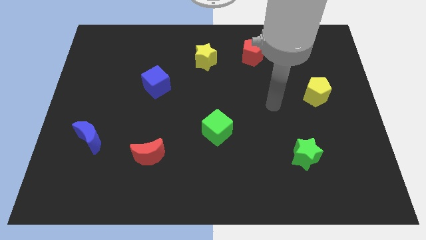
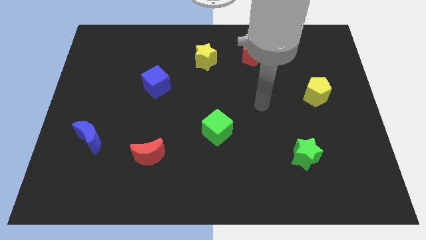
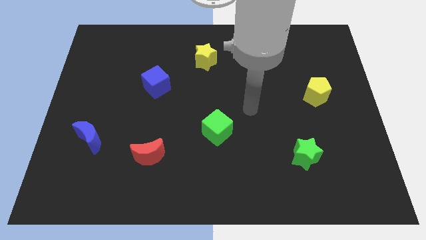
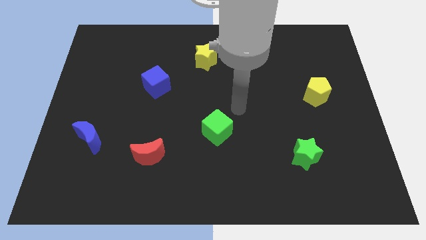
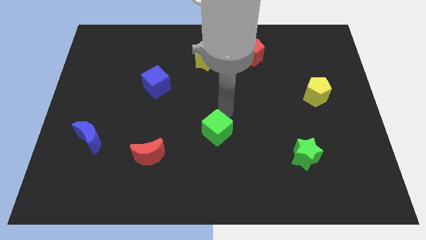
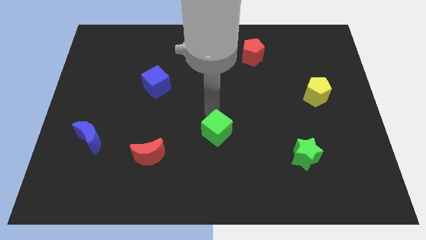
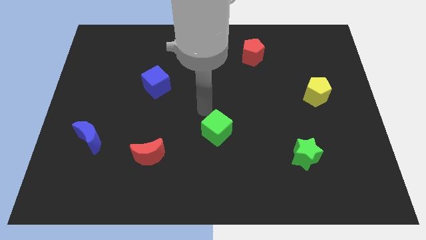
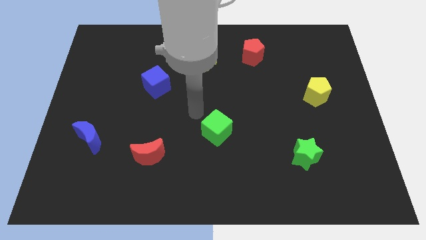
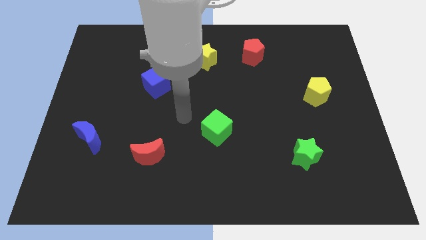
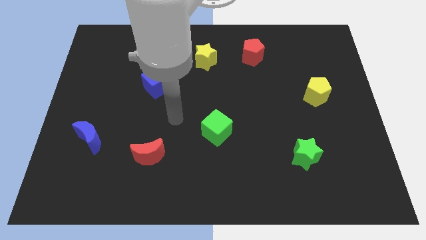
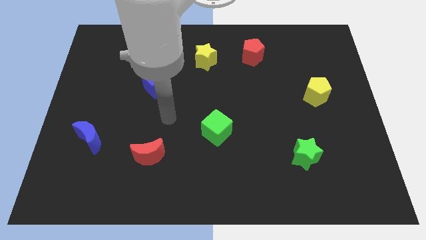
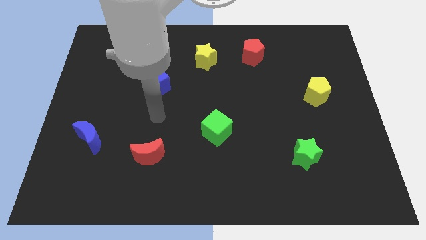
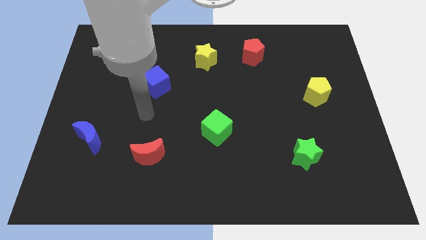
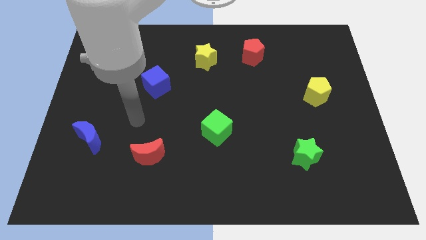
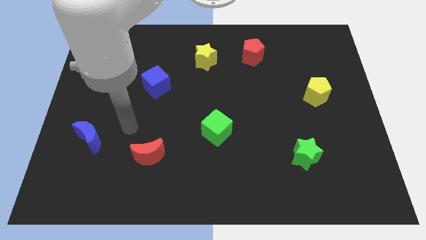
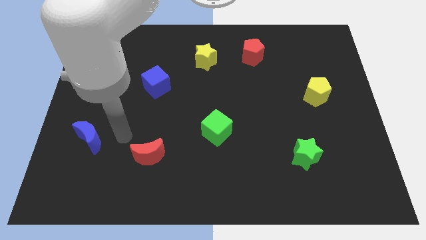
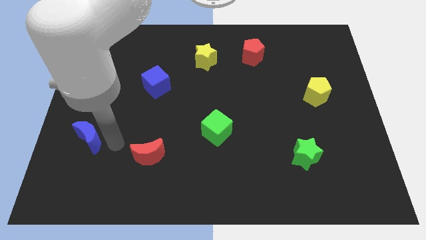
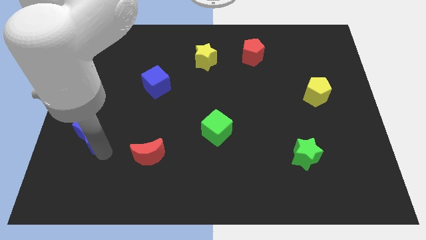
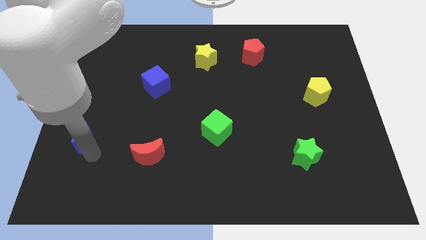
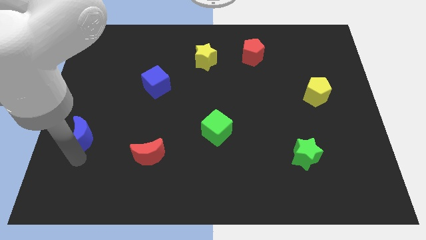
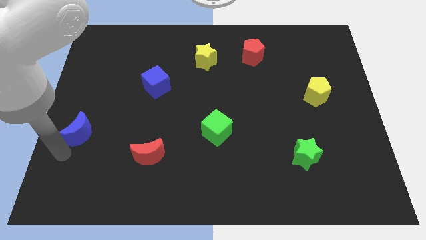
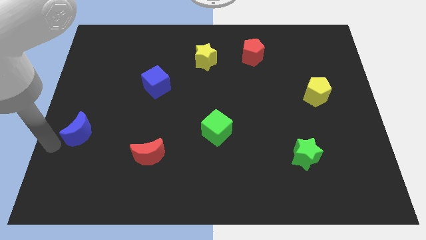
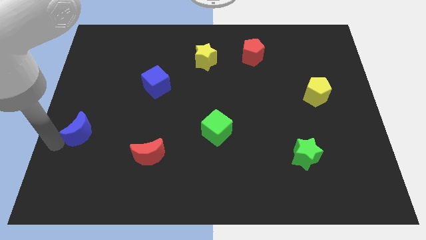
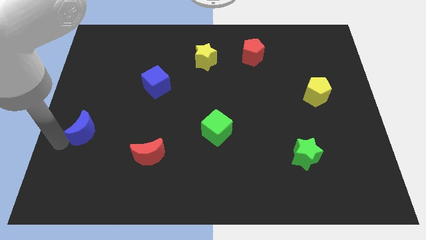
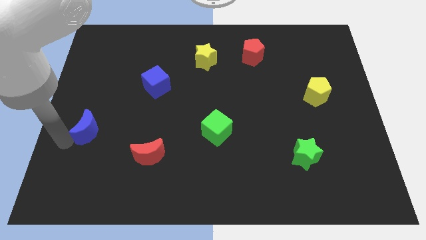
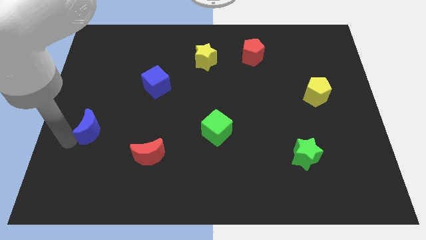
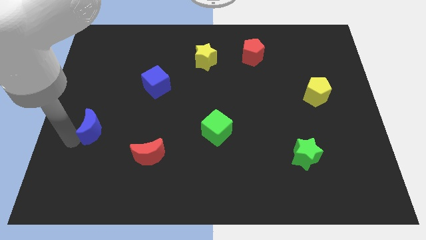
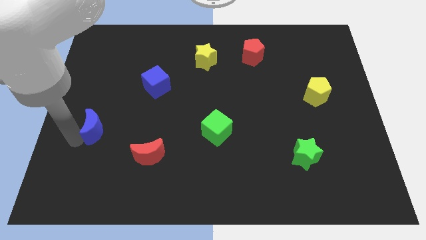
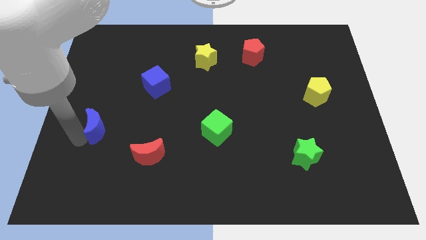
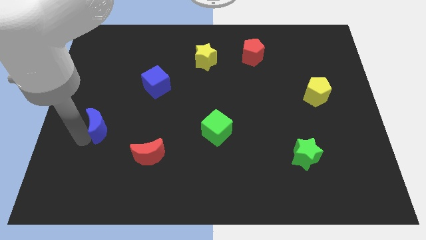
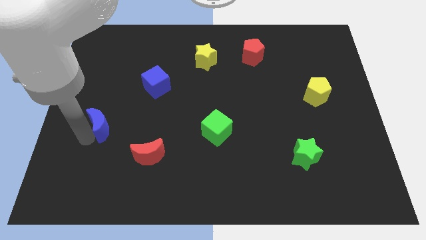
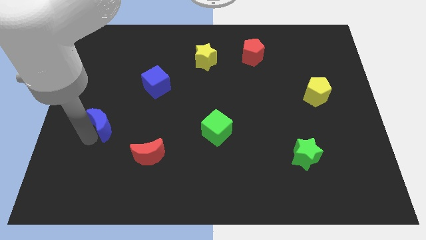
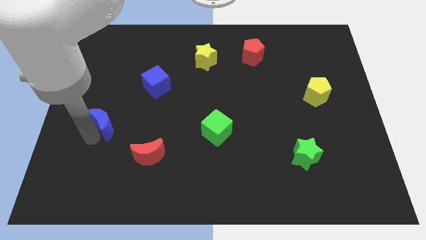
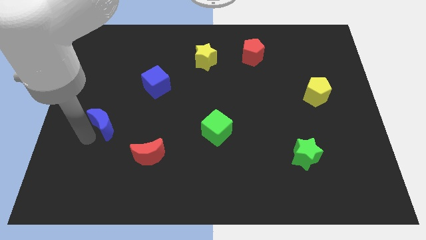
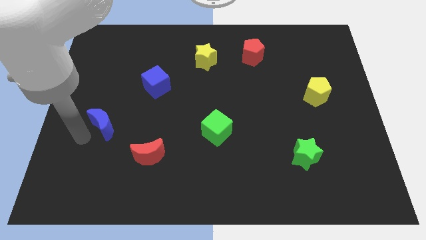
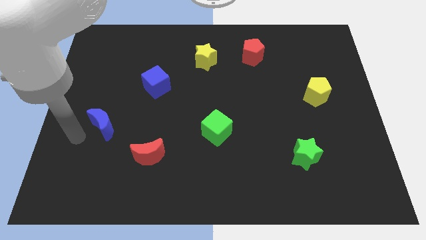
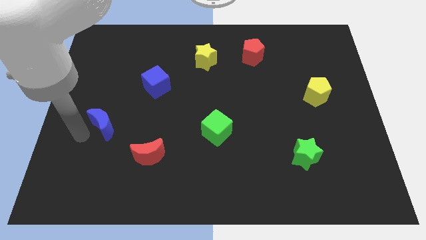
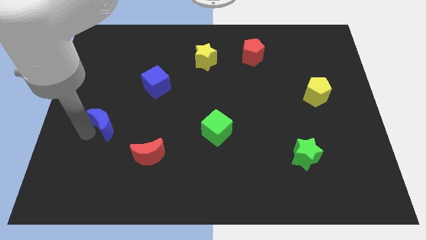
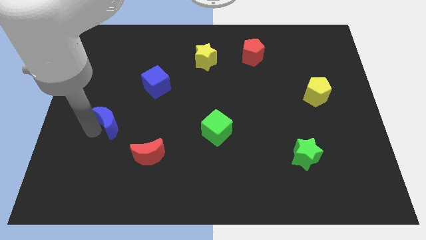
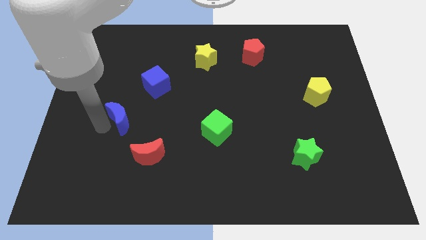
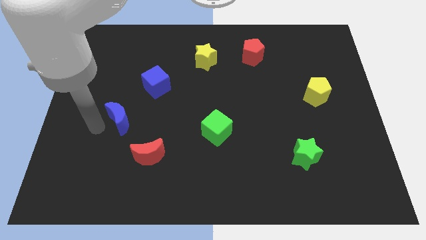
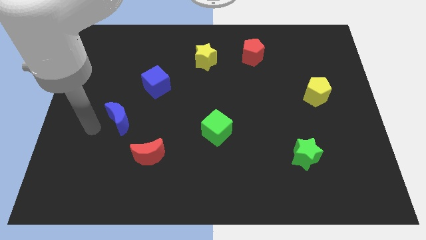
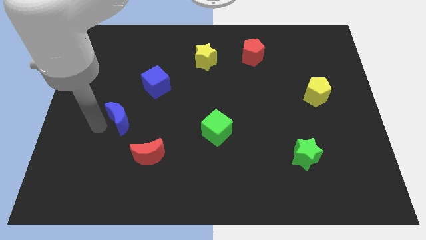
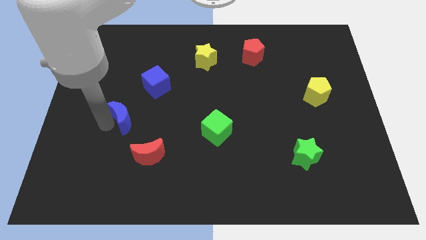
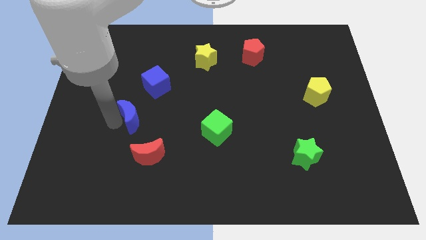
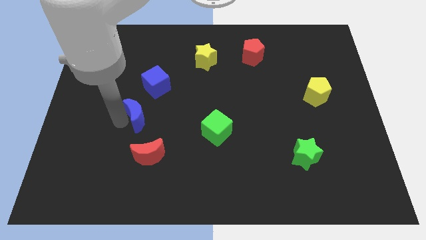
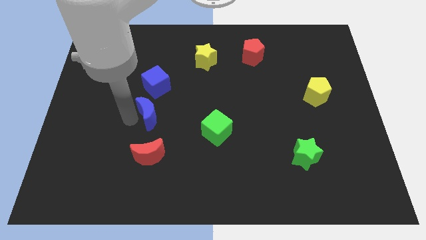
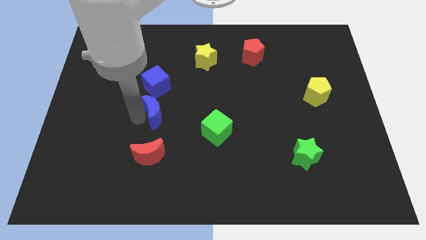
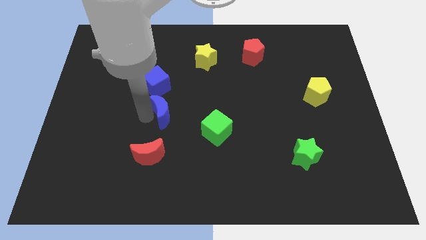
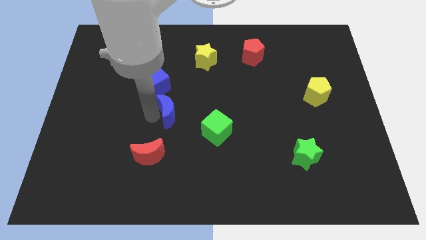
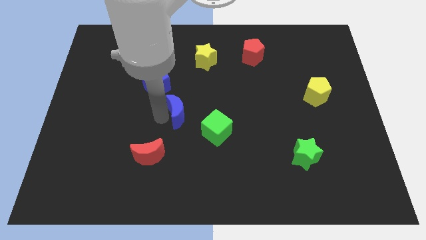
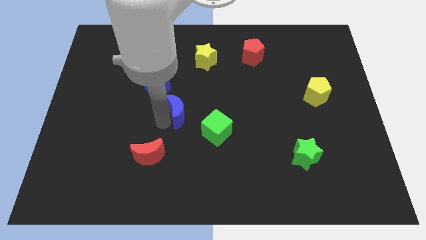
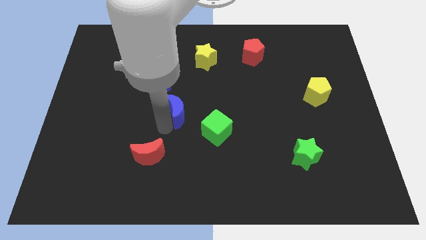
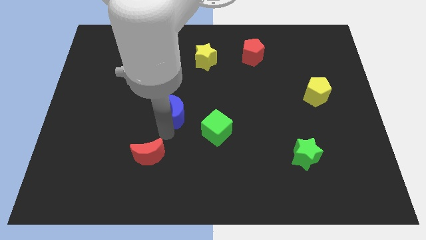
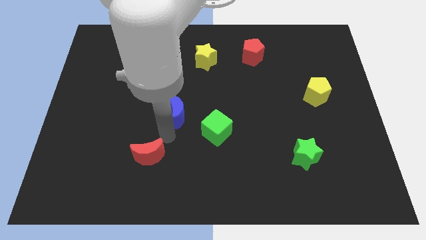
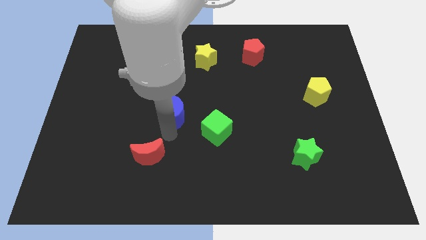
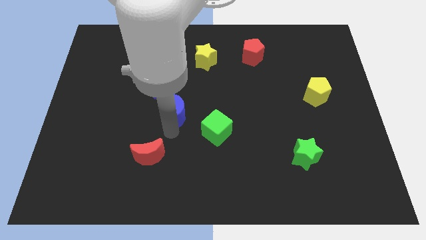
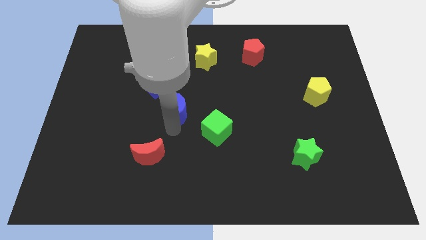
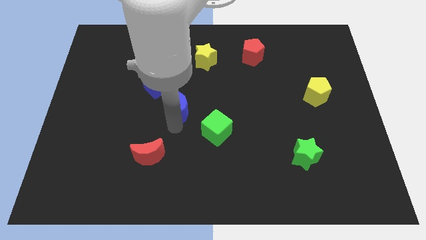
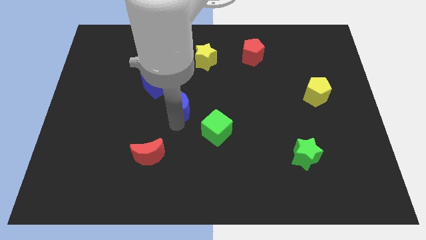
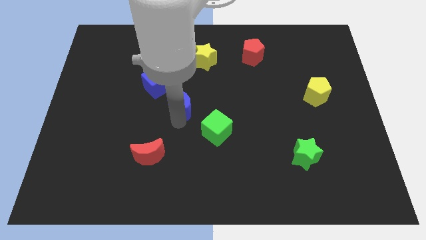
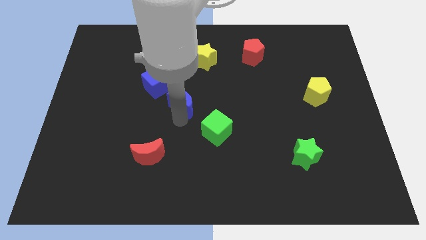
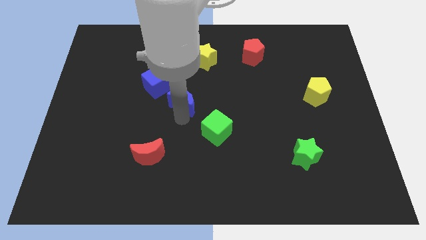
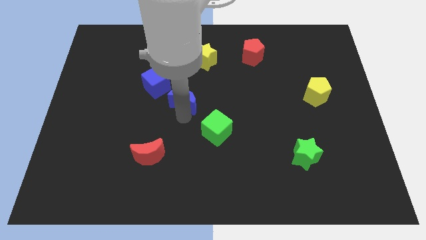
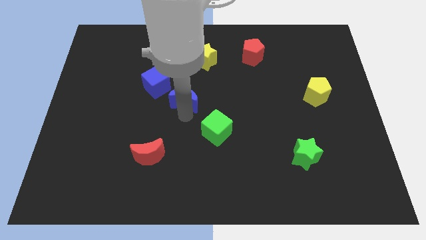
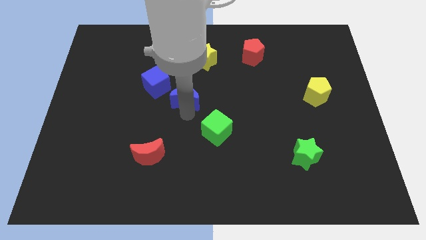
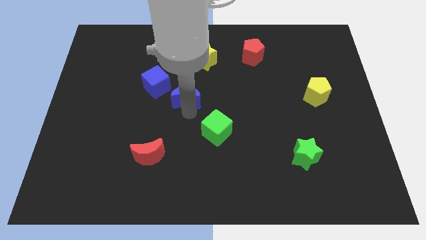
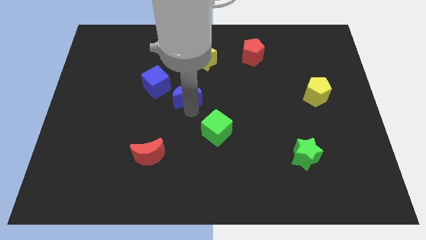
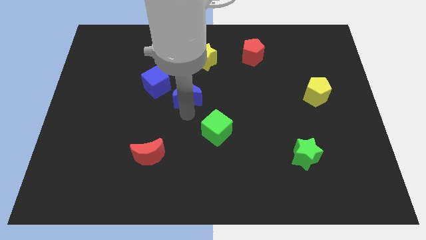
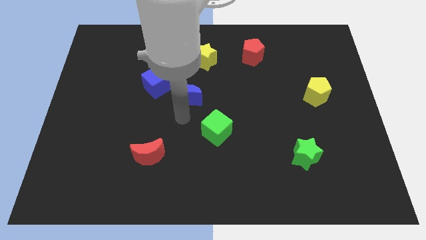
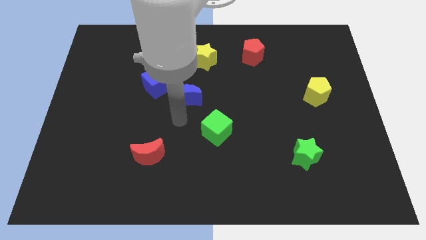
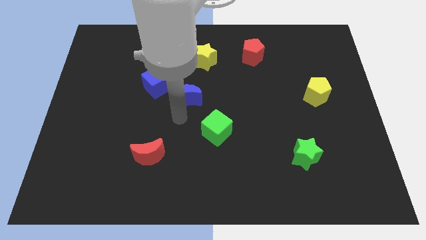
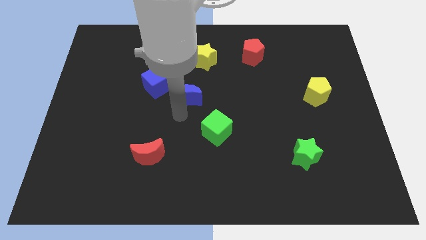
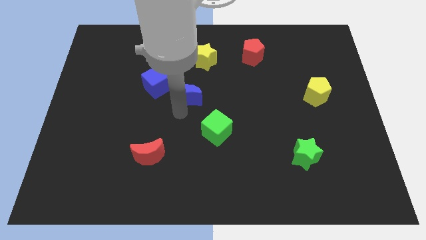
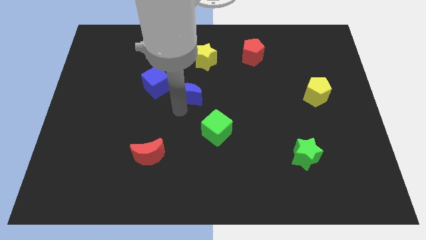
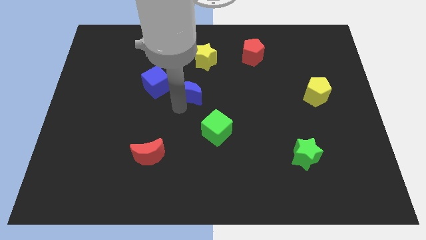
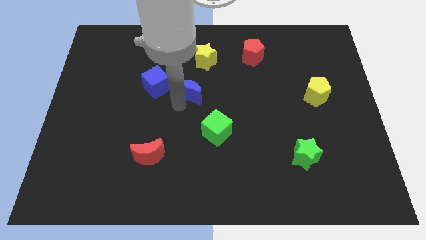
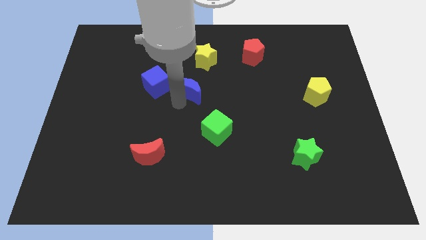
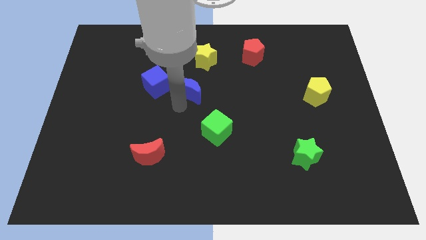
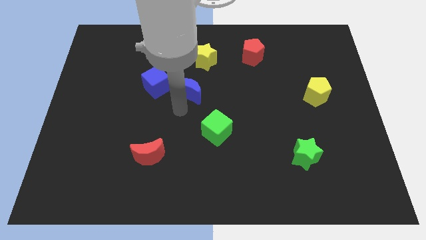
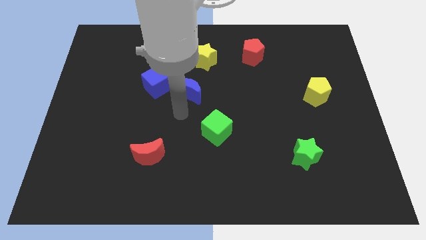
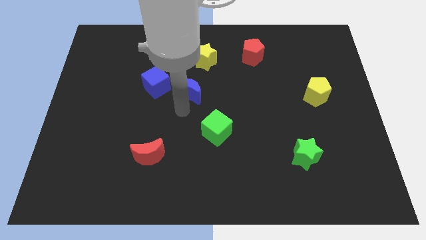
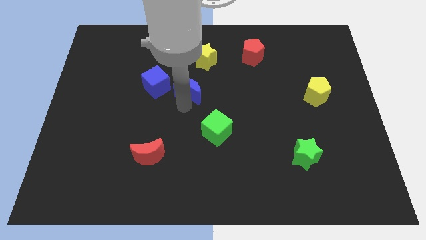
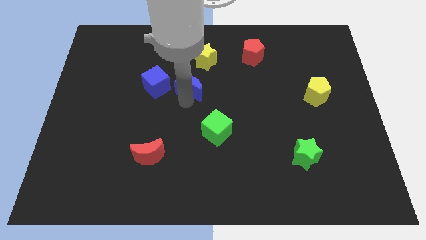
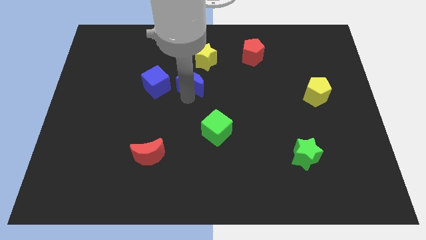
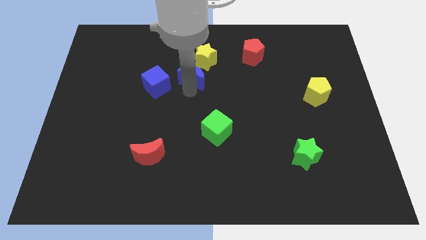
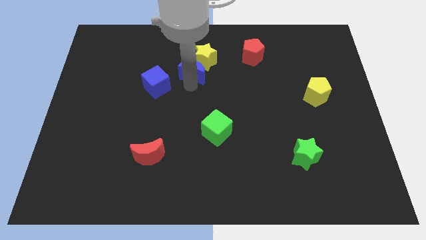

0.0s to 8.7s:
push the blue moon close to the yellow star
